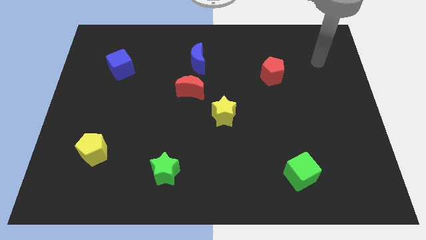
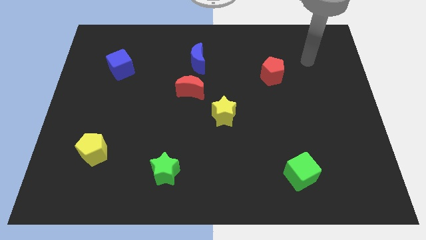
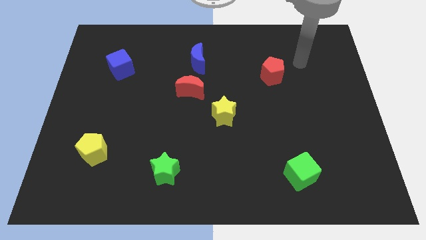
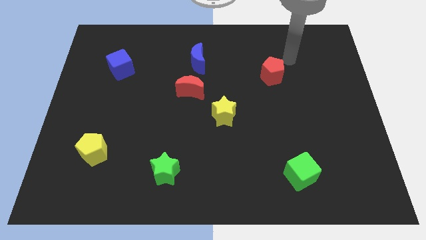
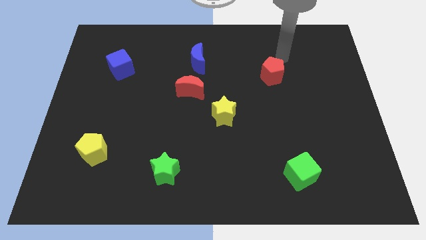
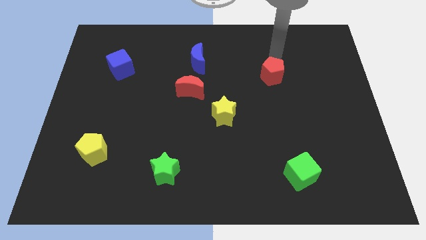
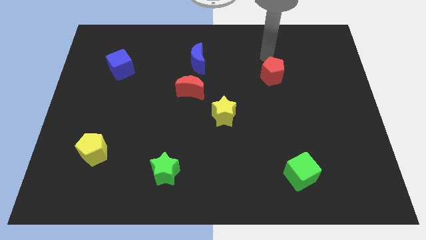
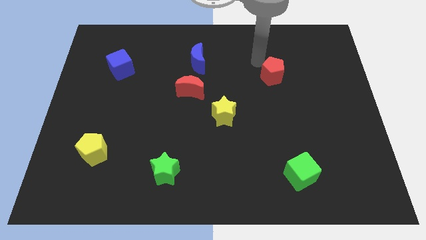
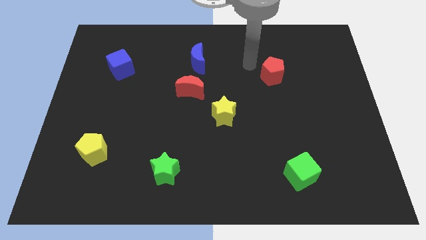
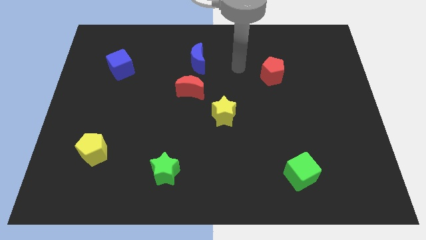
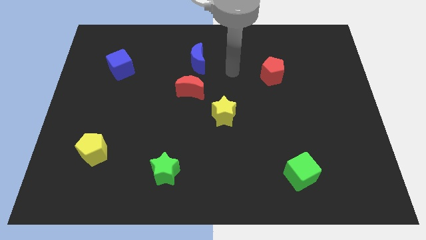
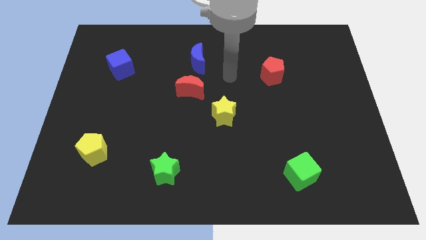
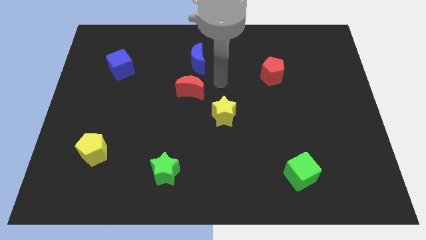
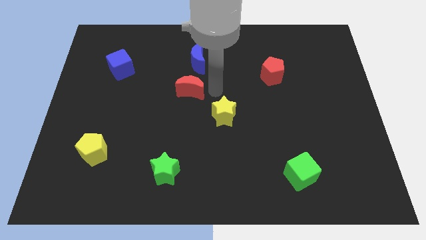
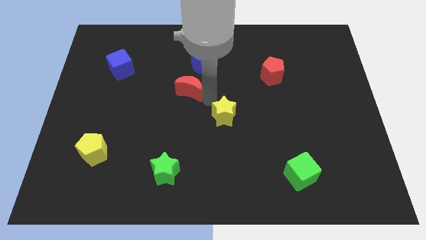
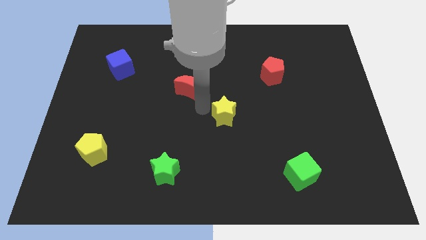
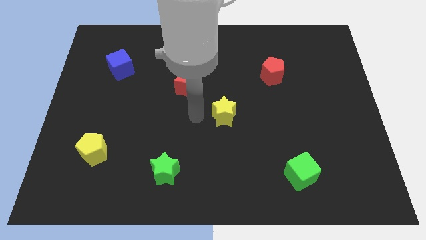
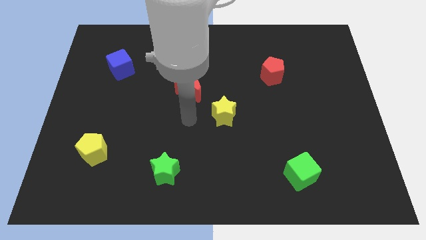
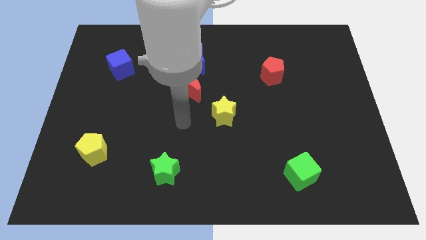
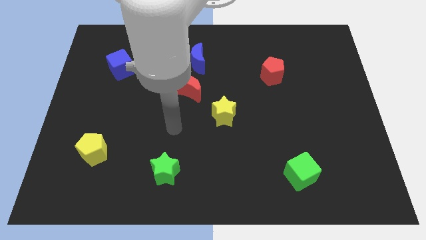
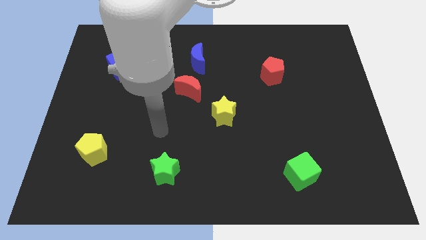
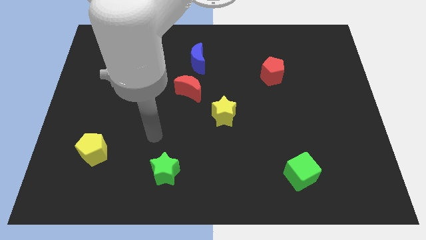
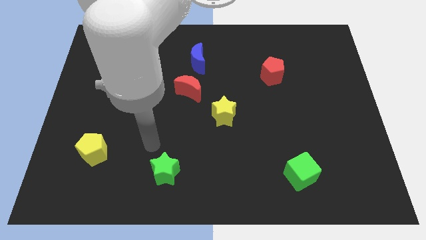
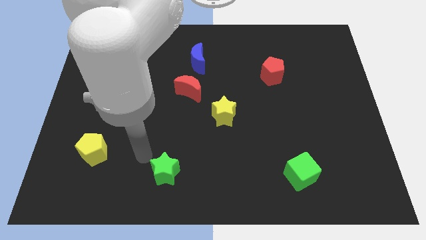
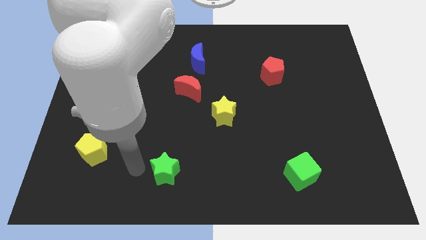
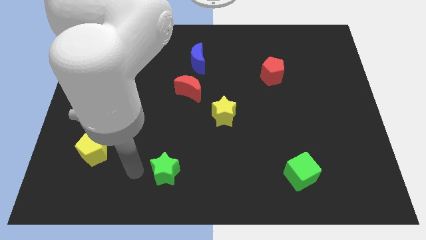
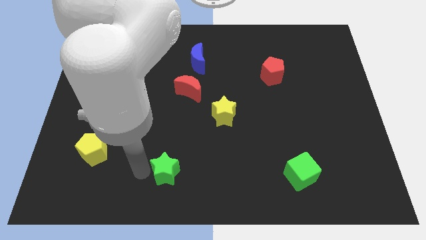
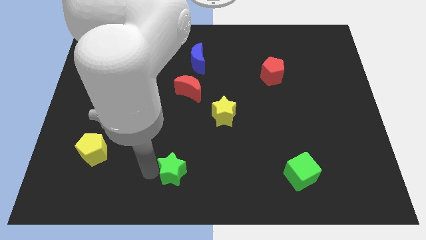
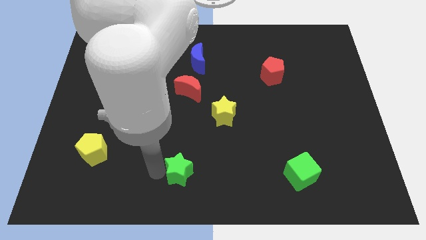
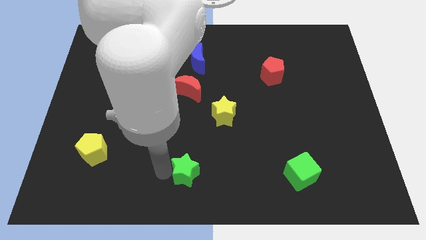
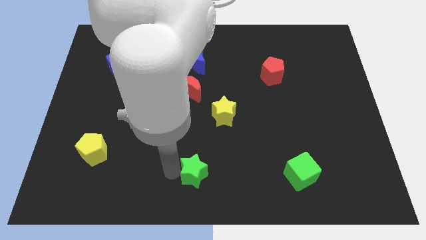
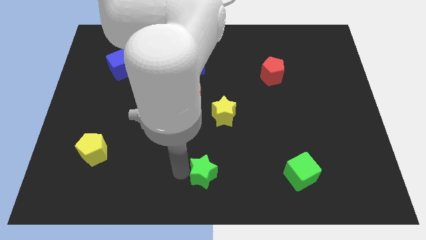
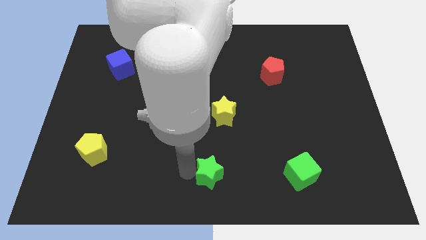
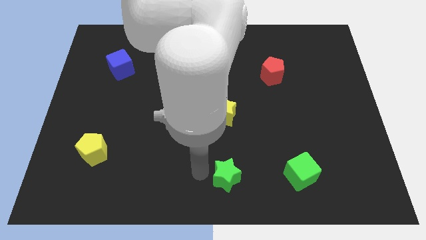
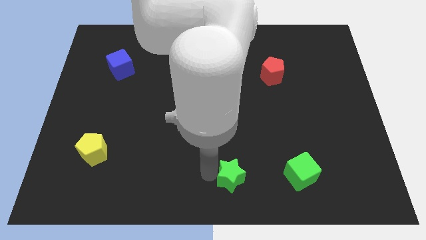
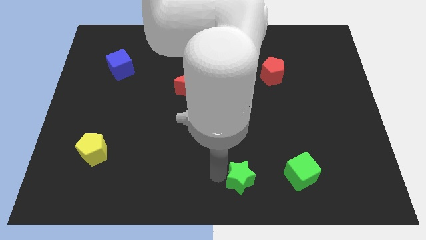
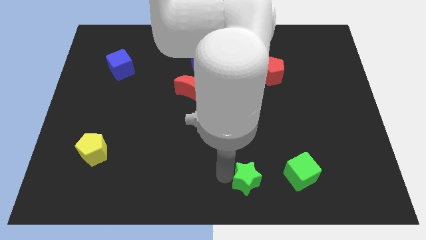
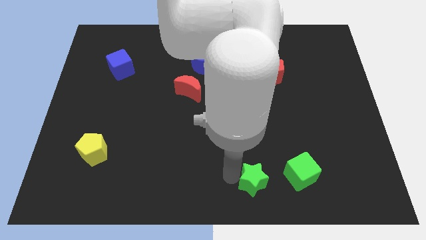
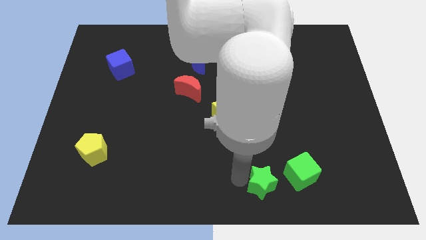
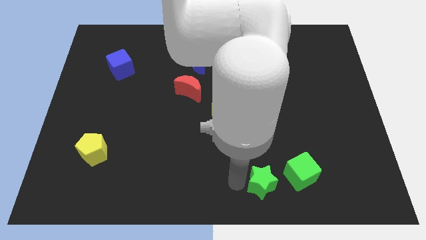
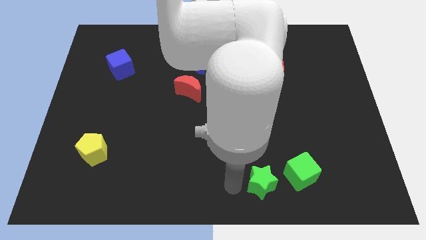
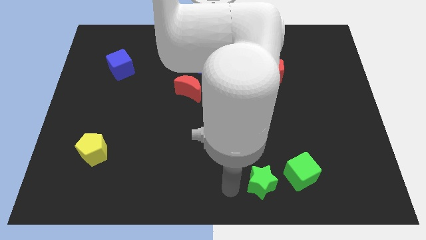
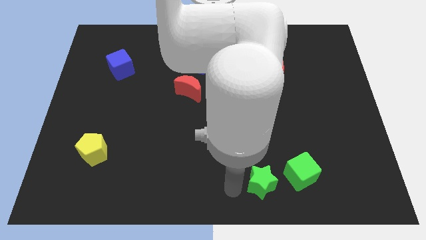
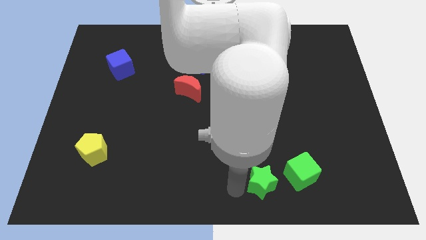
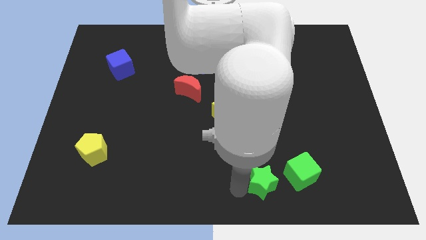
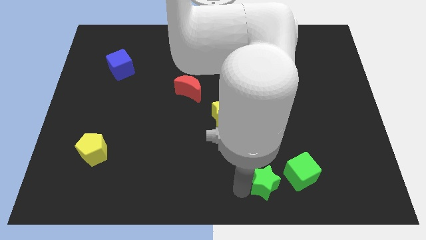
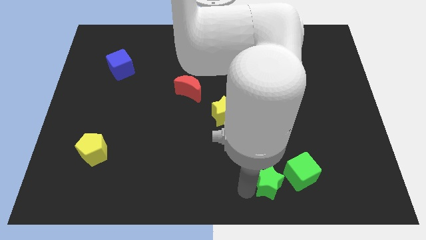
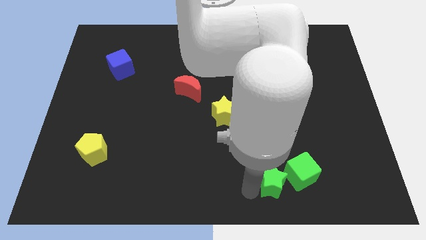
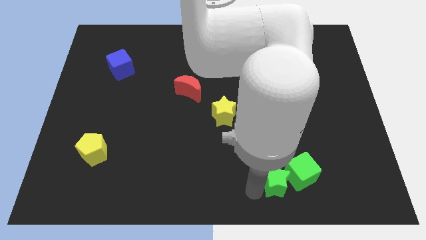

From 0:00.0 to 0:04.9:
move the green star next to the green cube

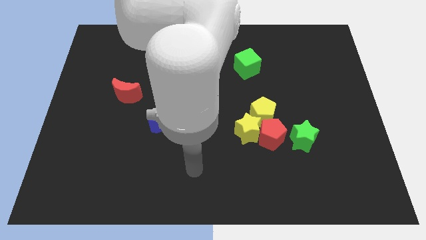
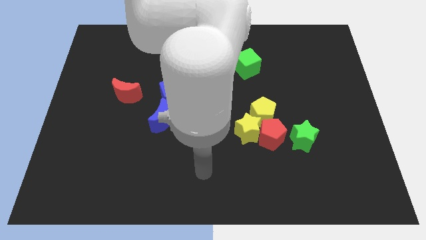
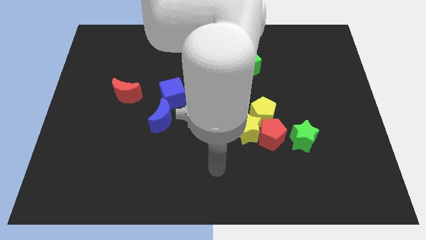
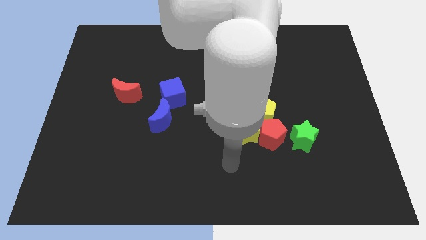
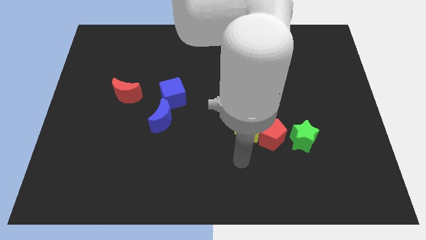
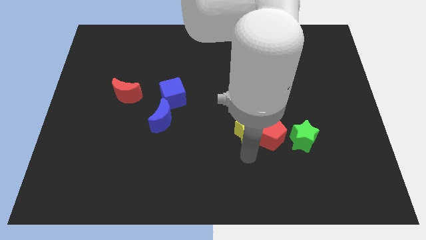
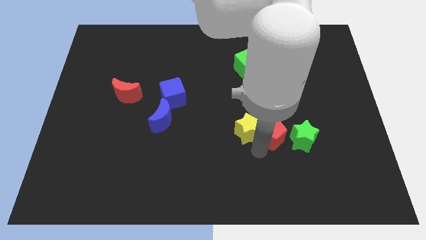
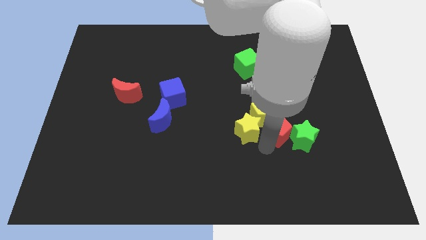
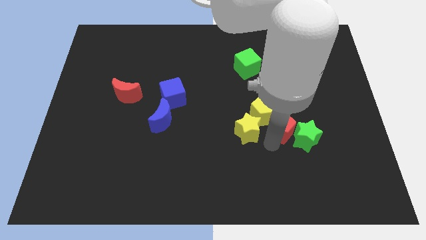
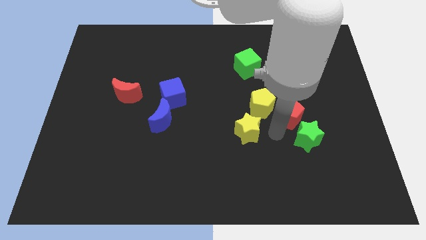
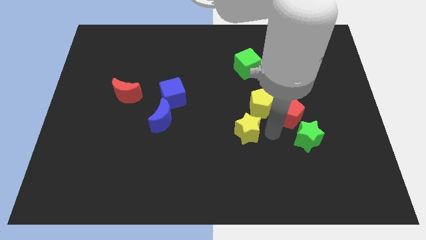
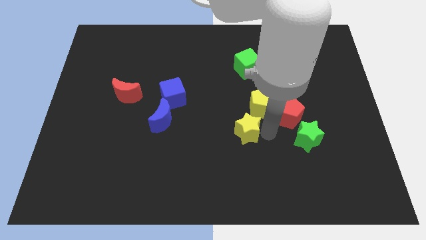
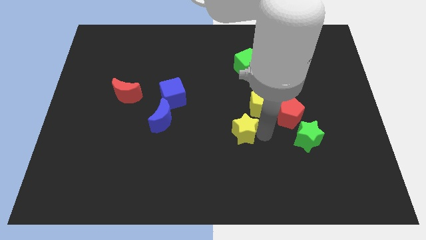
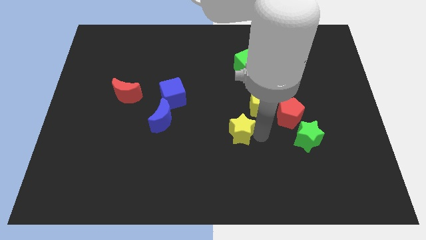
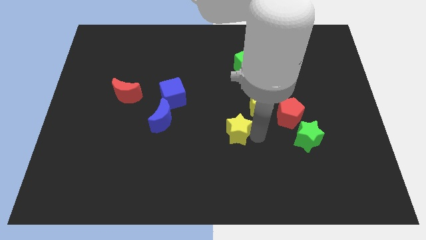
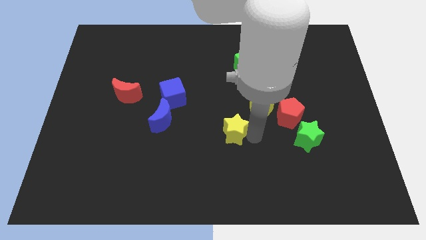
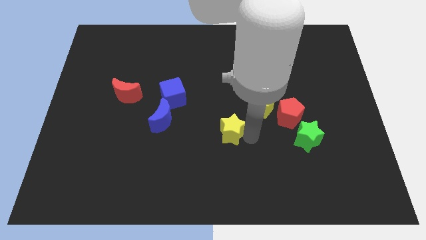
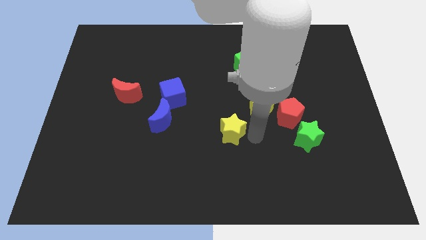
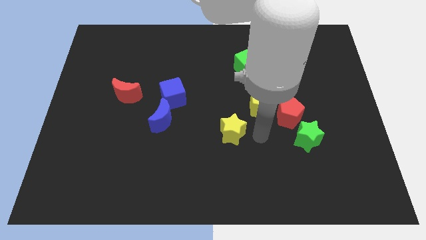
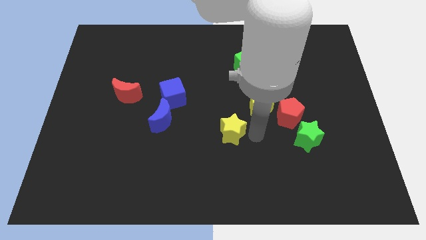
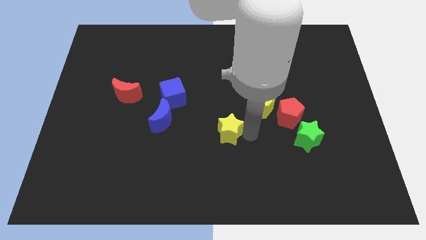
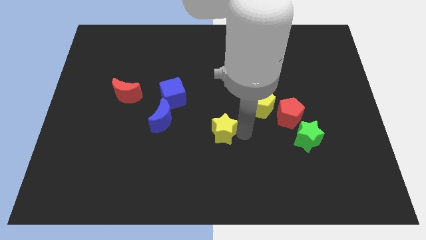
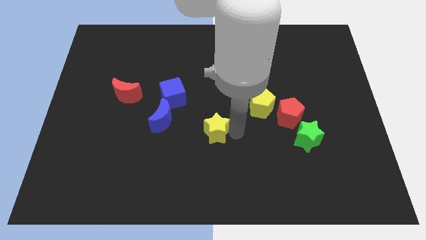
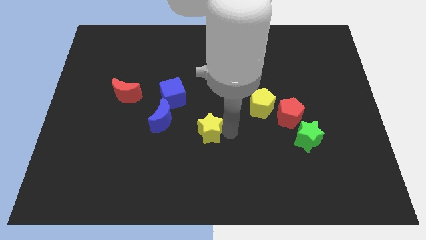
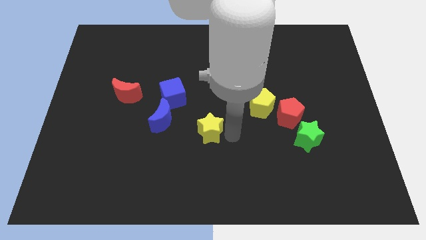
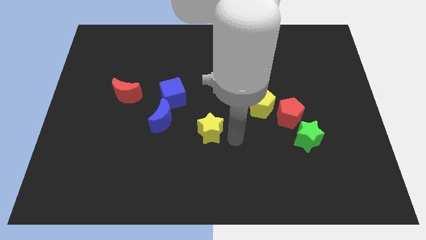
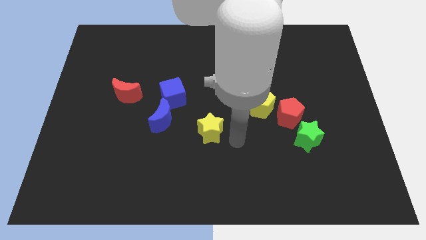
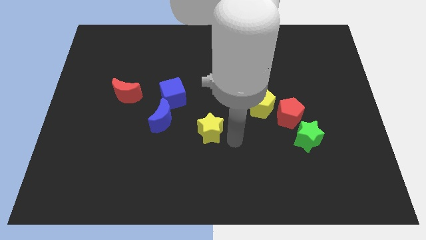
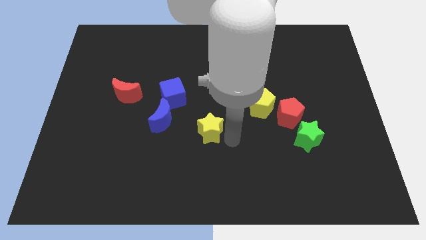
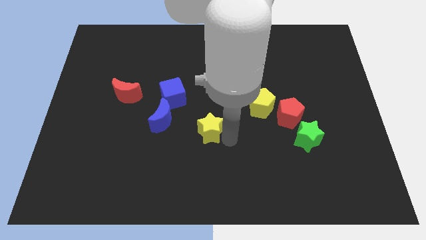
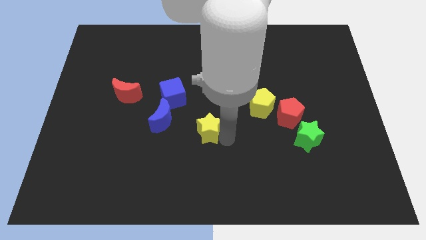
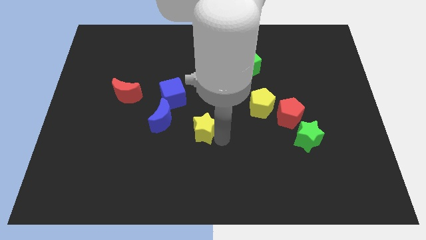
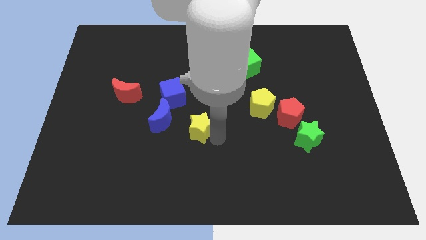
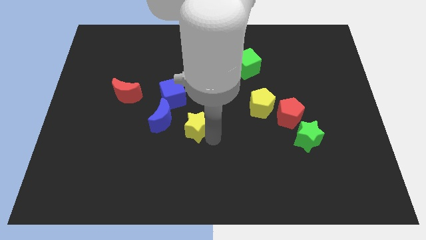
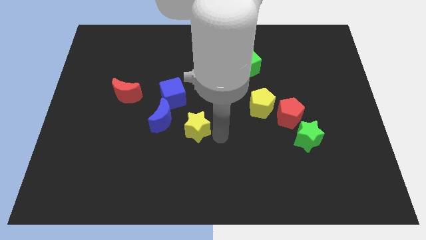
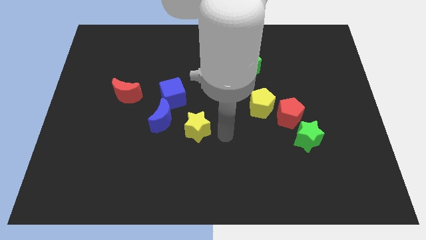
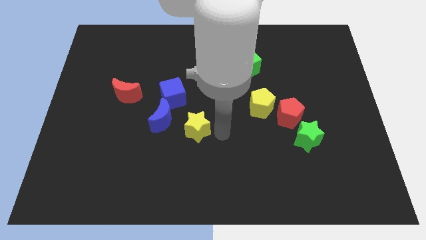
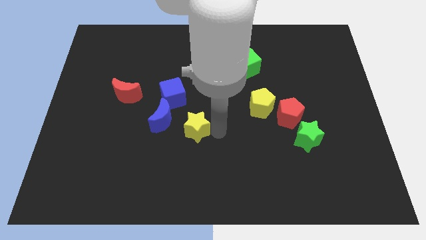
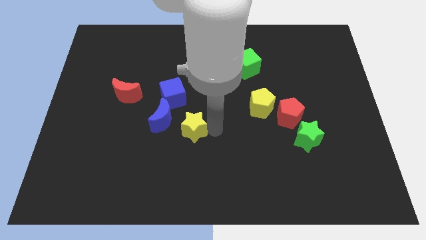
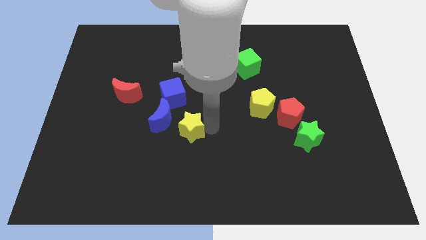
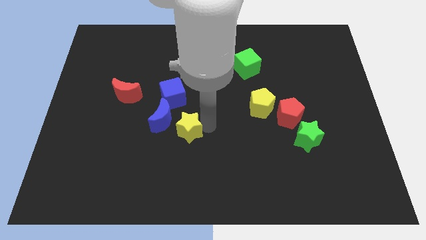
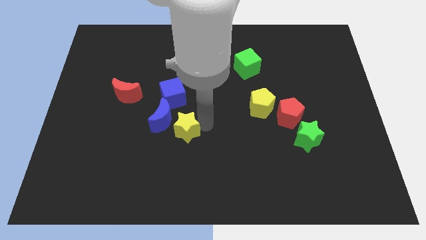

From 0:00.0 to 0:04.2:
put the yellow star towards the blue moon
